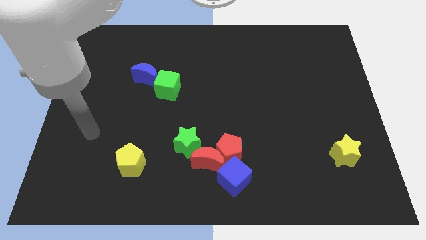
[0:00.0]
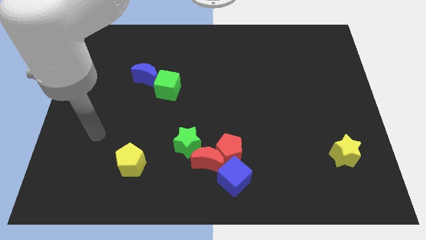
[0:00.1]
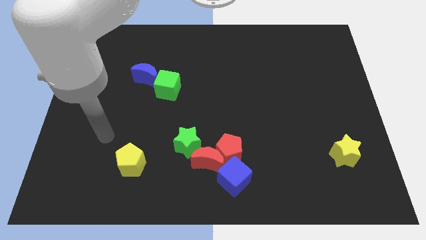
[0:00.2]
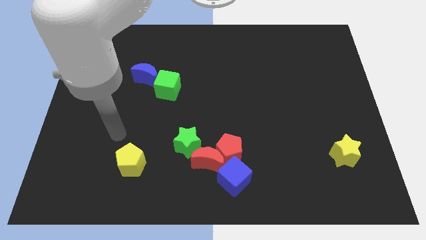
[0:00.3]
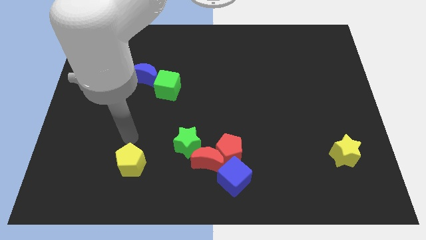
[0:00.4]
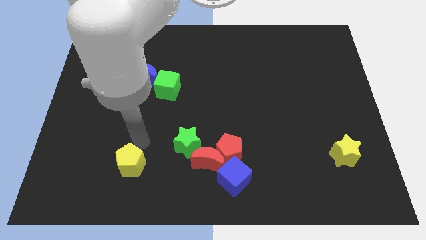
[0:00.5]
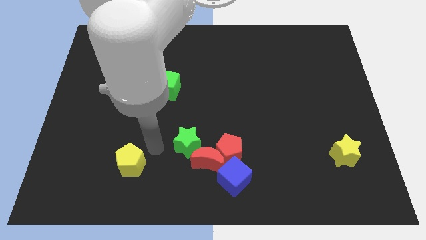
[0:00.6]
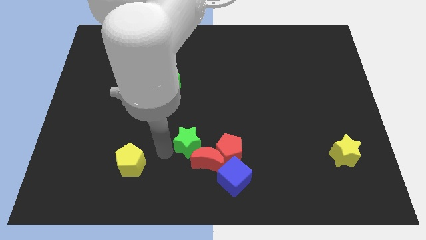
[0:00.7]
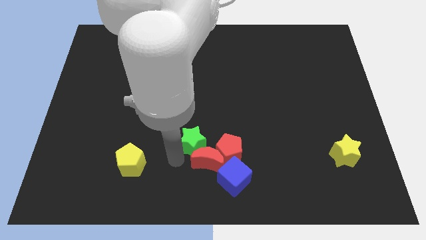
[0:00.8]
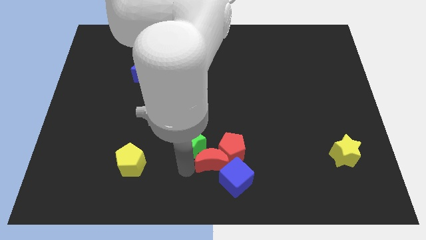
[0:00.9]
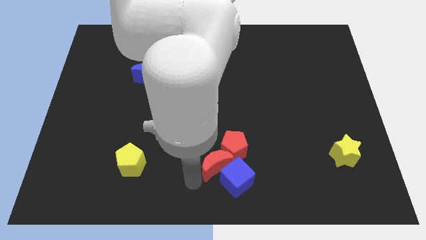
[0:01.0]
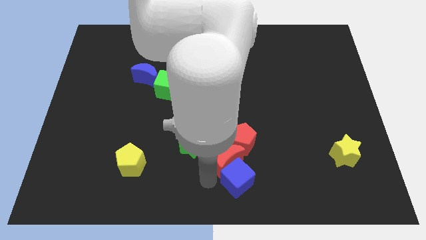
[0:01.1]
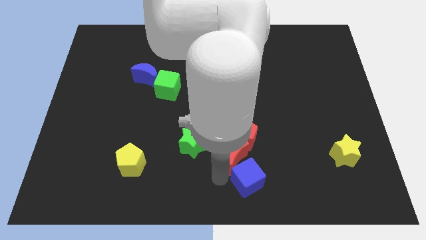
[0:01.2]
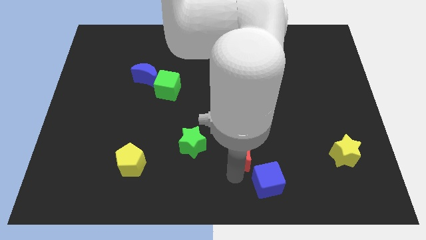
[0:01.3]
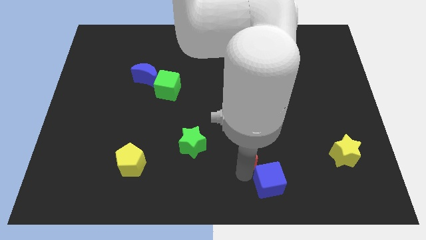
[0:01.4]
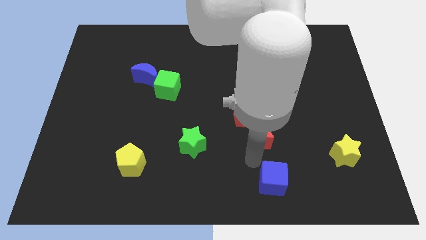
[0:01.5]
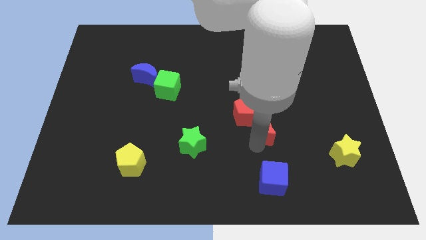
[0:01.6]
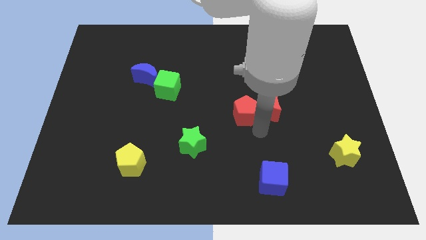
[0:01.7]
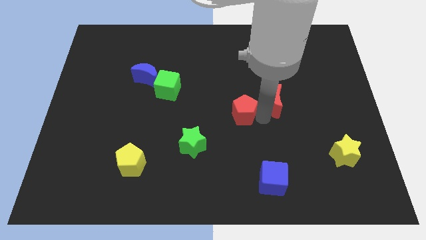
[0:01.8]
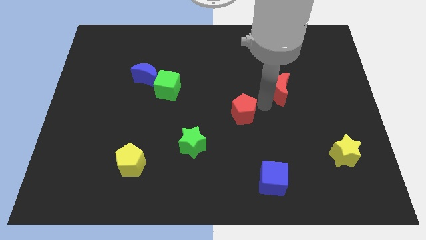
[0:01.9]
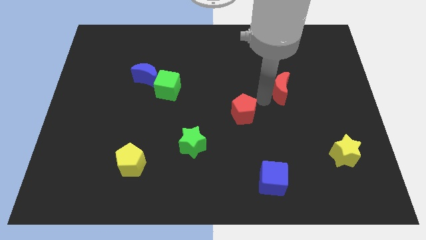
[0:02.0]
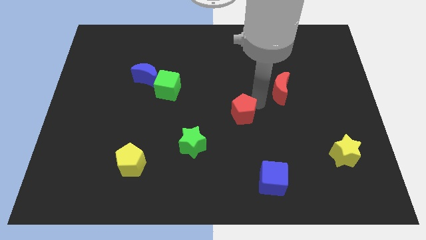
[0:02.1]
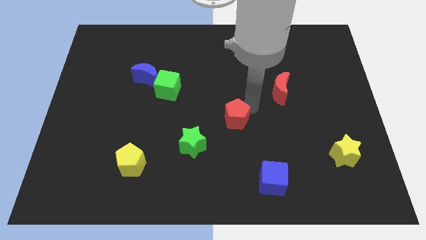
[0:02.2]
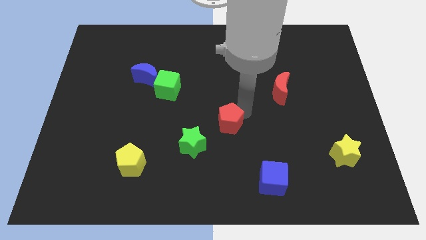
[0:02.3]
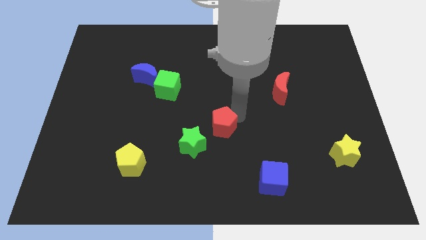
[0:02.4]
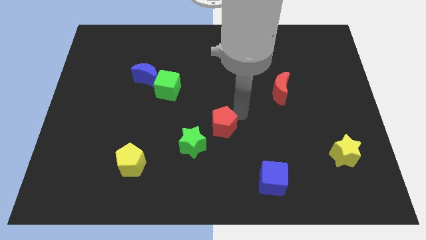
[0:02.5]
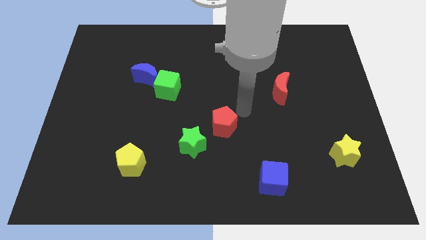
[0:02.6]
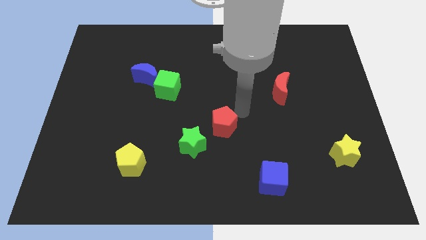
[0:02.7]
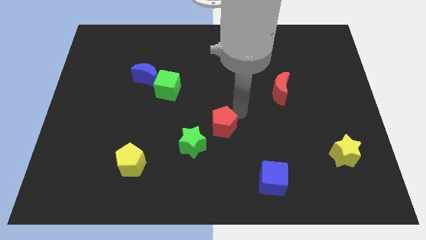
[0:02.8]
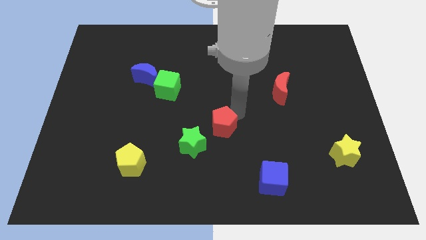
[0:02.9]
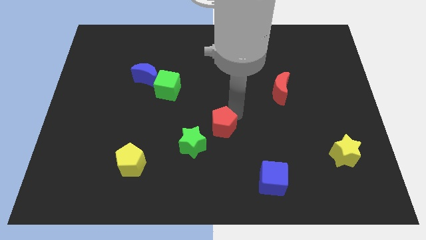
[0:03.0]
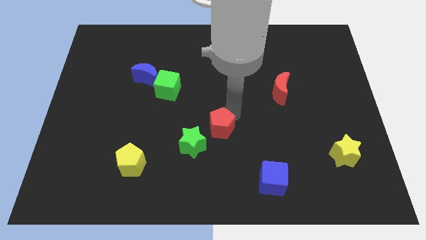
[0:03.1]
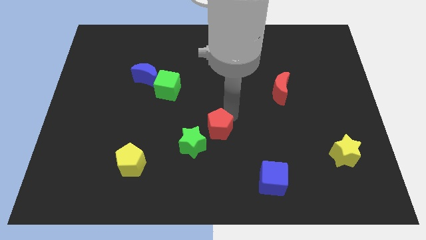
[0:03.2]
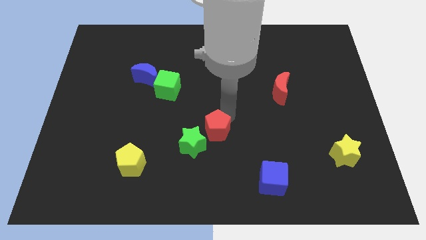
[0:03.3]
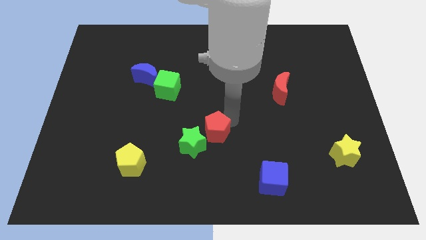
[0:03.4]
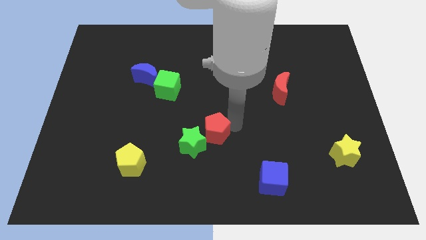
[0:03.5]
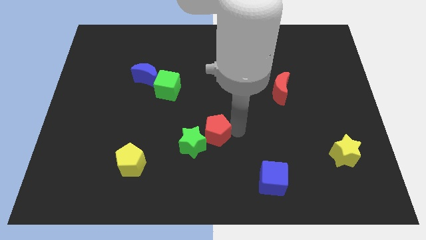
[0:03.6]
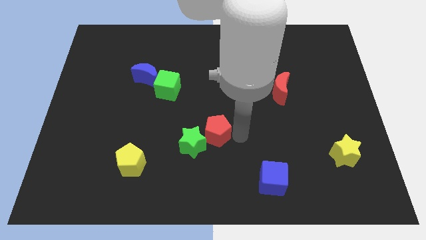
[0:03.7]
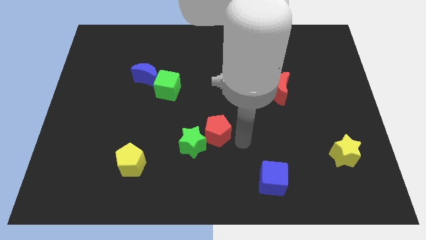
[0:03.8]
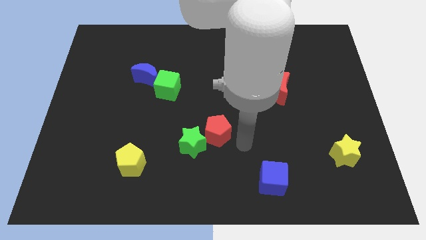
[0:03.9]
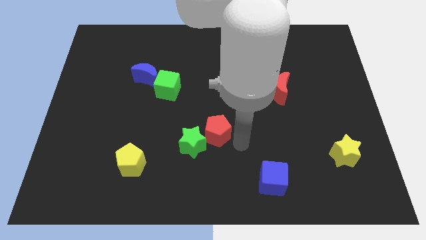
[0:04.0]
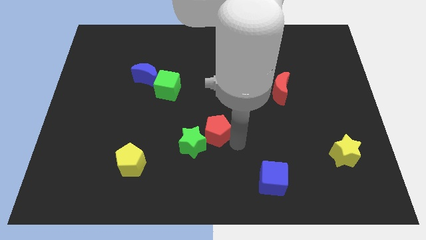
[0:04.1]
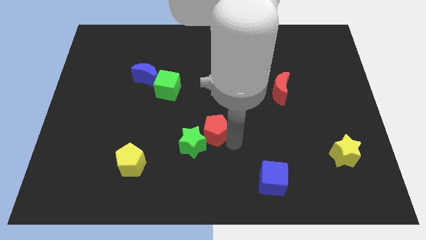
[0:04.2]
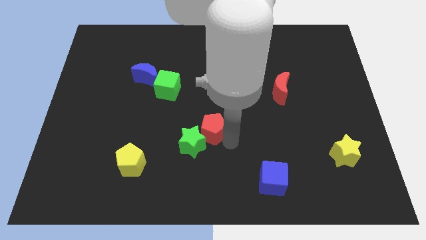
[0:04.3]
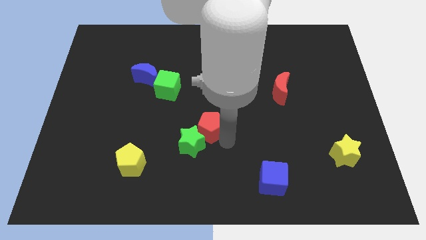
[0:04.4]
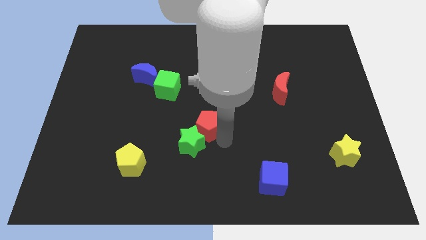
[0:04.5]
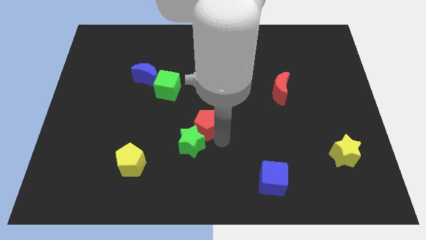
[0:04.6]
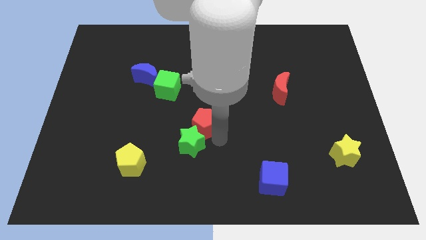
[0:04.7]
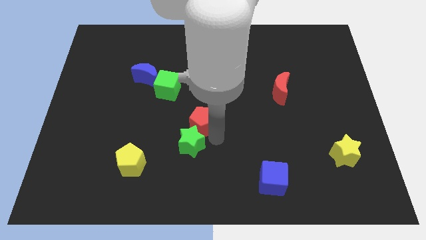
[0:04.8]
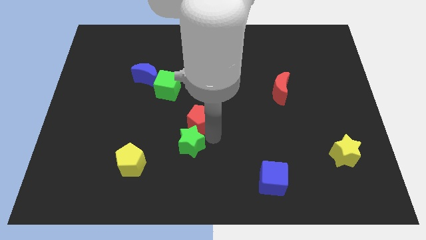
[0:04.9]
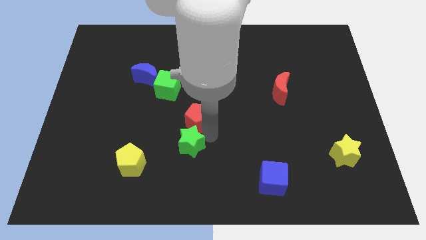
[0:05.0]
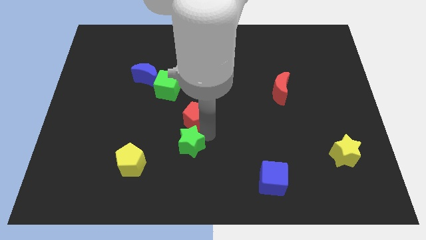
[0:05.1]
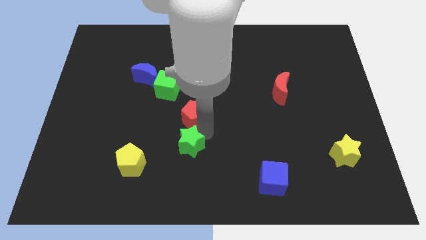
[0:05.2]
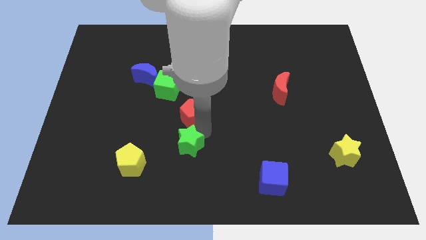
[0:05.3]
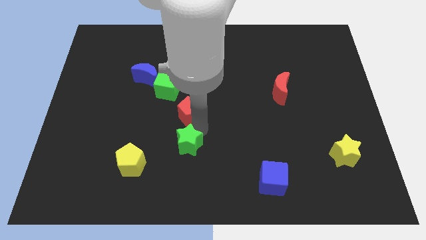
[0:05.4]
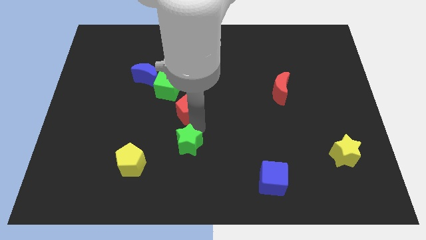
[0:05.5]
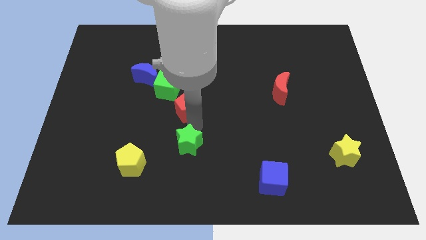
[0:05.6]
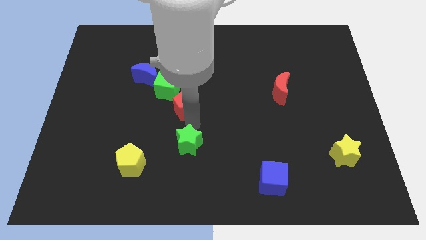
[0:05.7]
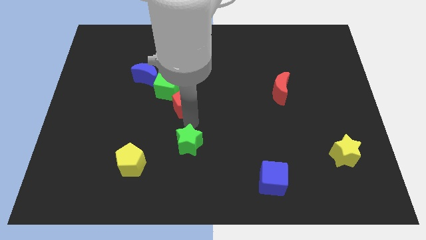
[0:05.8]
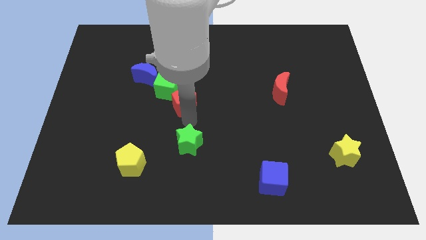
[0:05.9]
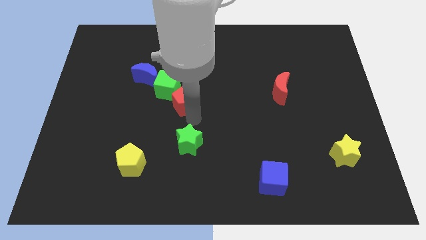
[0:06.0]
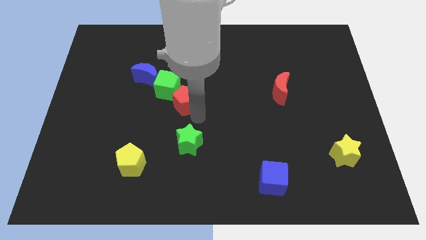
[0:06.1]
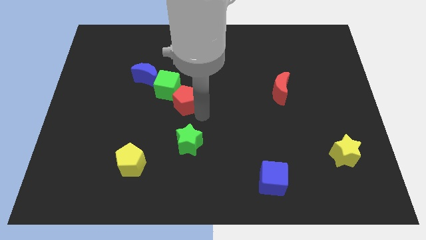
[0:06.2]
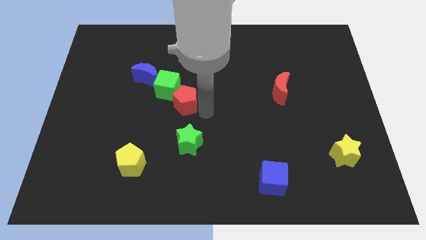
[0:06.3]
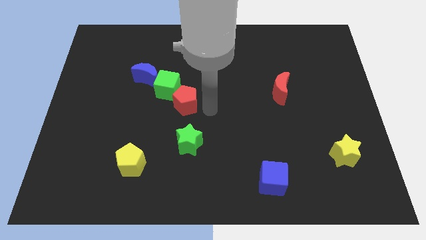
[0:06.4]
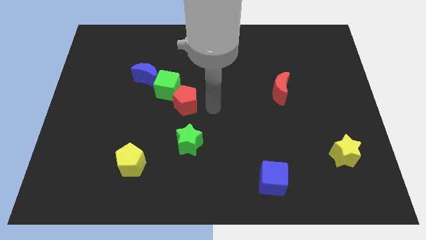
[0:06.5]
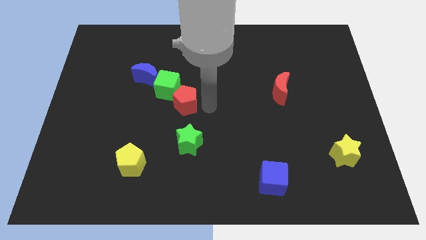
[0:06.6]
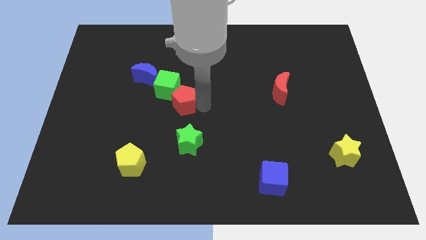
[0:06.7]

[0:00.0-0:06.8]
put the red pentagon close to the green cube

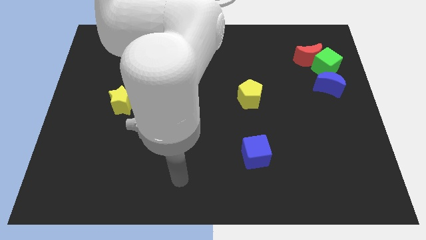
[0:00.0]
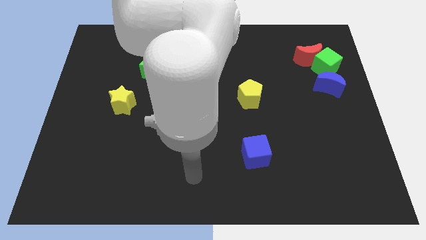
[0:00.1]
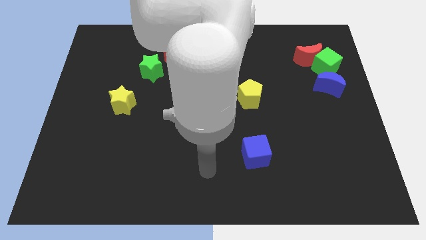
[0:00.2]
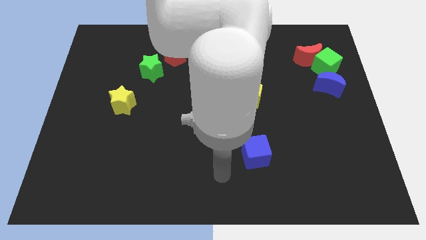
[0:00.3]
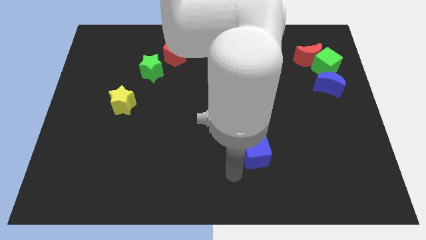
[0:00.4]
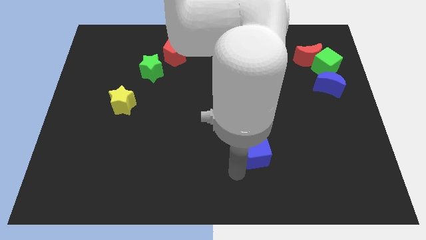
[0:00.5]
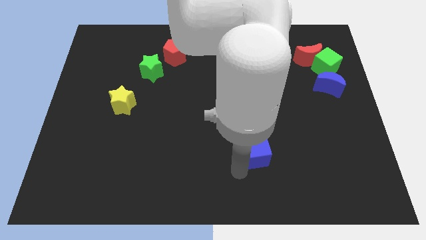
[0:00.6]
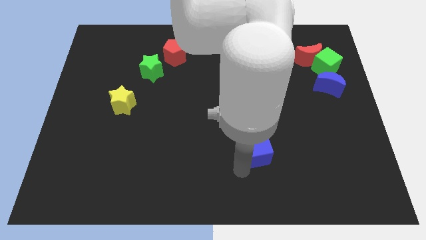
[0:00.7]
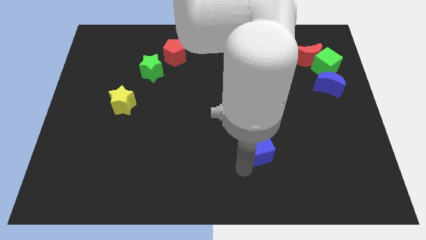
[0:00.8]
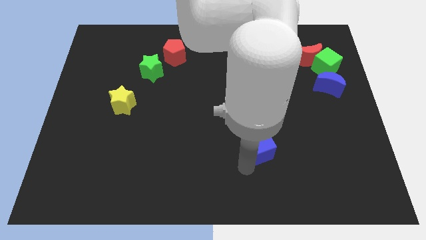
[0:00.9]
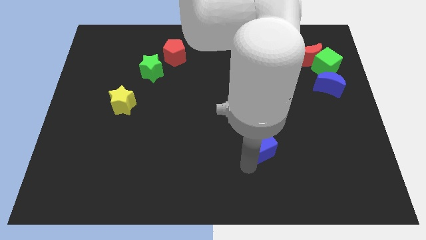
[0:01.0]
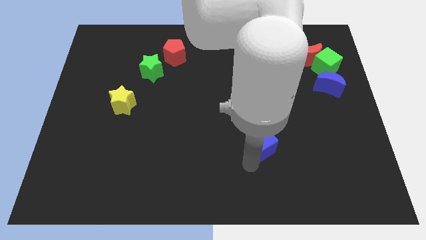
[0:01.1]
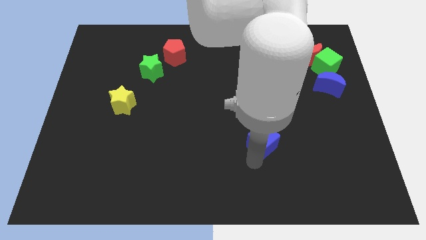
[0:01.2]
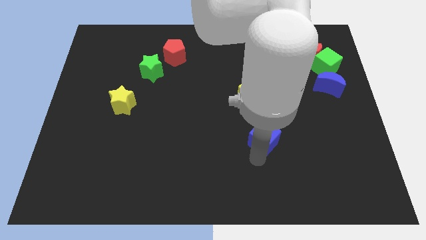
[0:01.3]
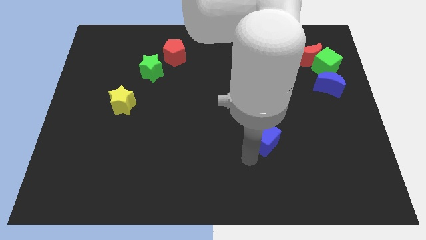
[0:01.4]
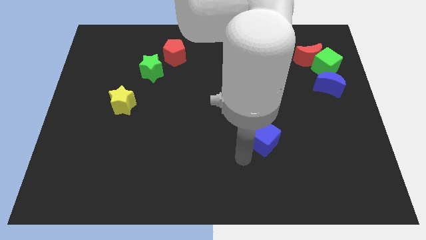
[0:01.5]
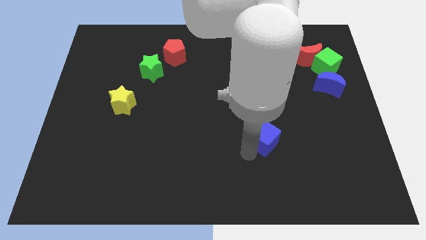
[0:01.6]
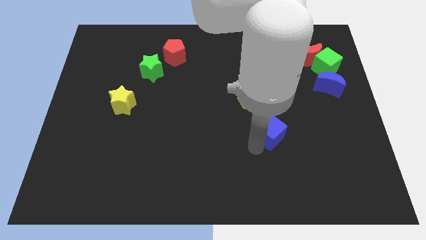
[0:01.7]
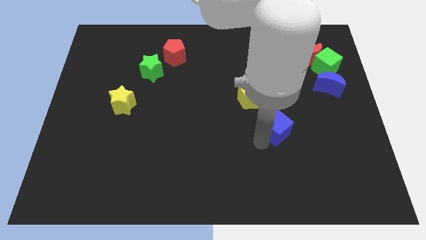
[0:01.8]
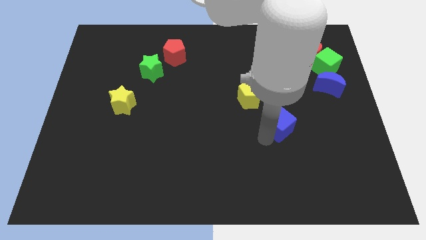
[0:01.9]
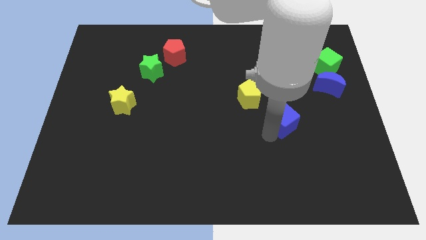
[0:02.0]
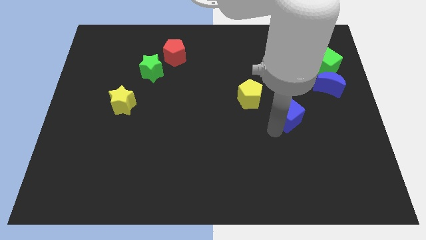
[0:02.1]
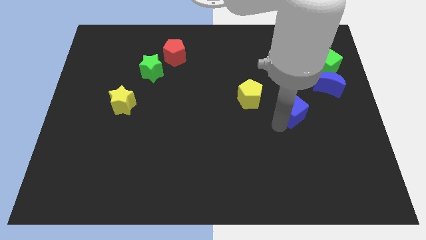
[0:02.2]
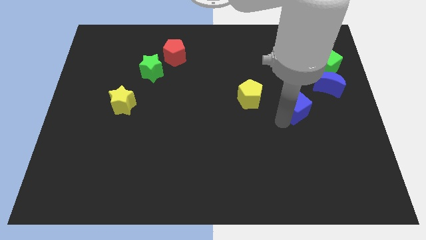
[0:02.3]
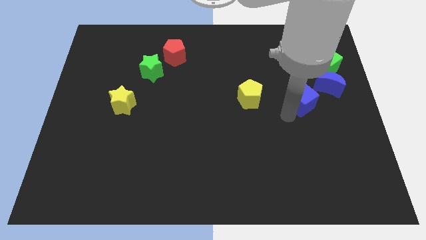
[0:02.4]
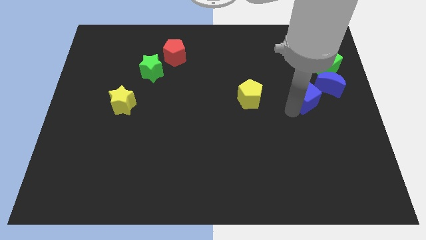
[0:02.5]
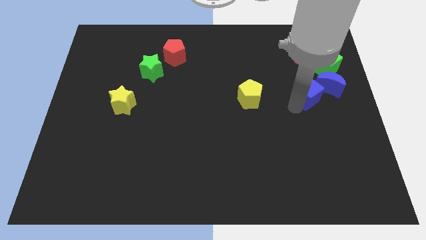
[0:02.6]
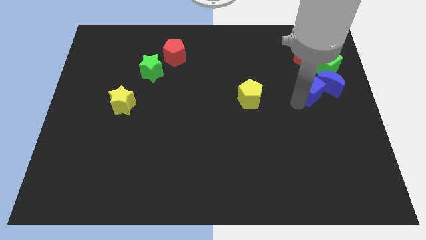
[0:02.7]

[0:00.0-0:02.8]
move the blue cube close to the blue moon
